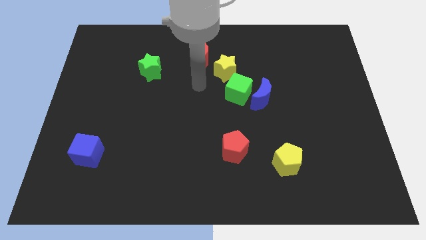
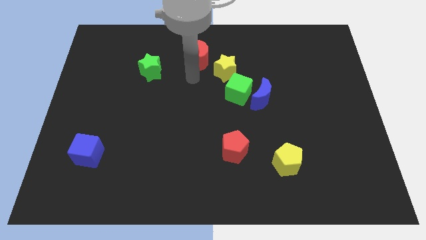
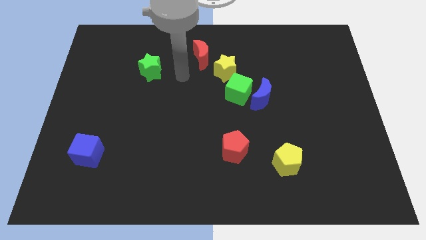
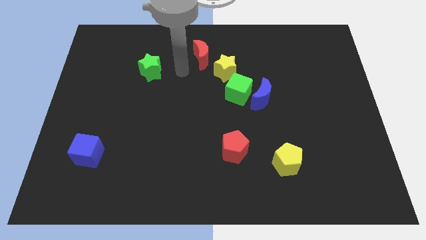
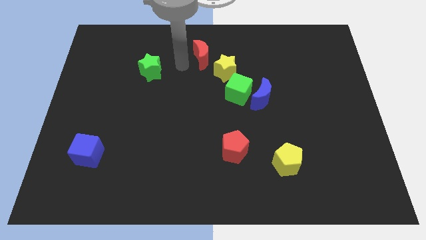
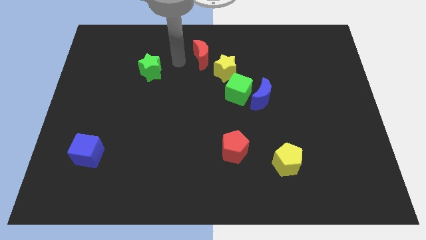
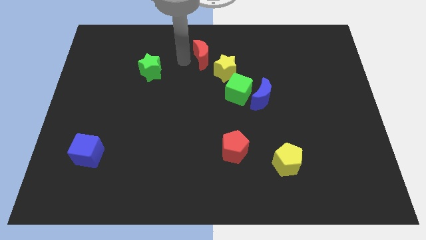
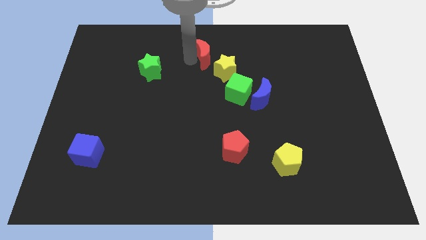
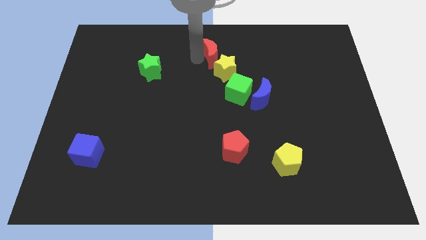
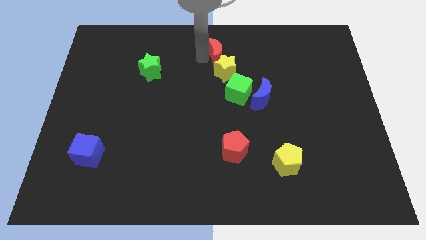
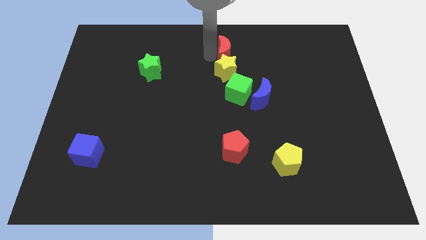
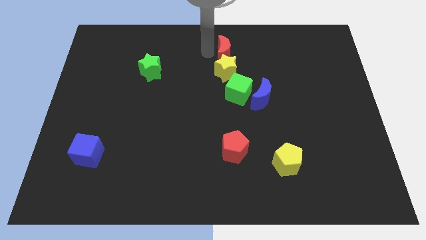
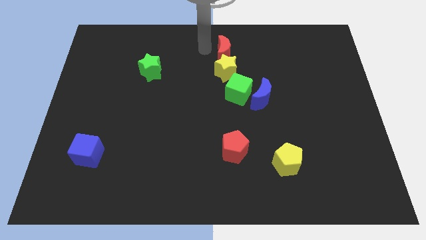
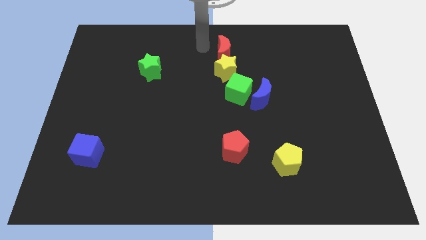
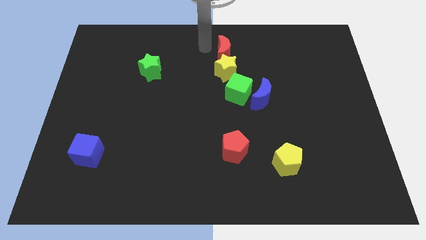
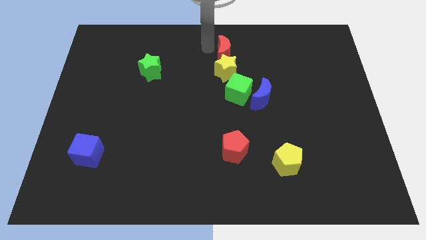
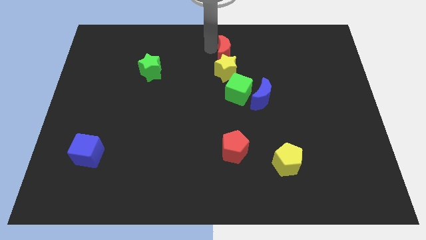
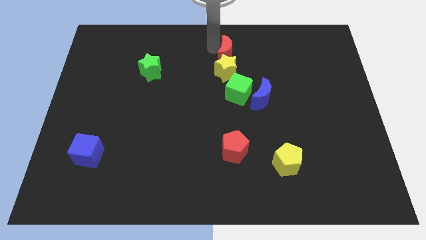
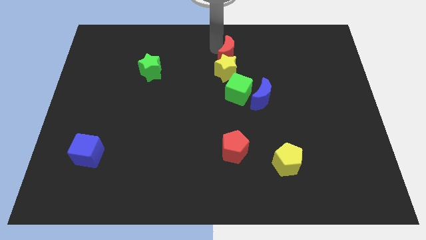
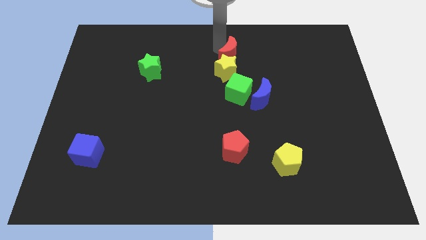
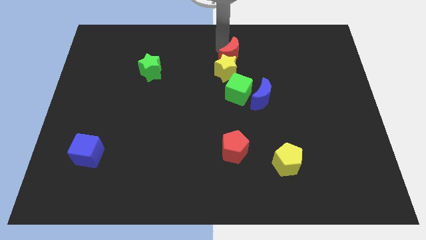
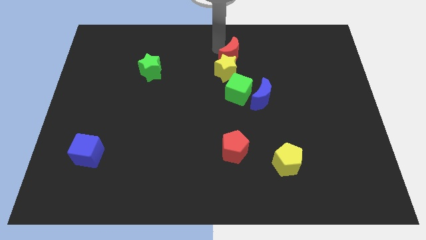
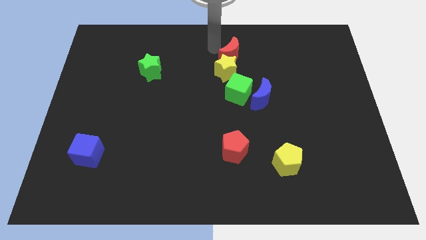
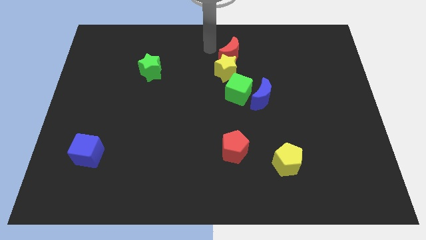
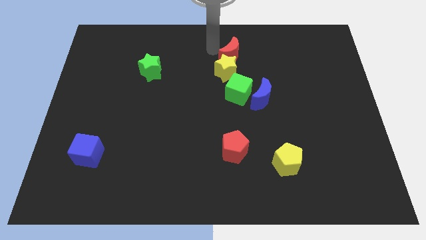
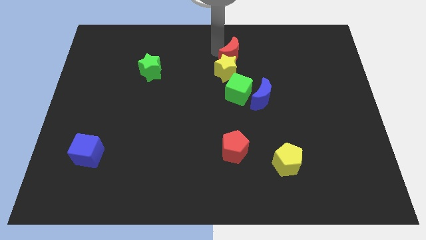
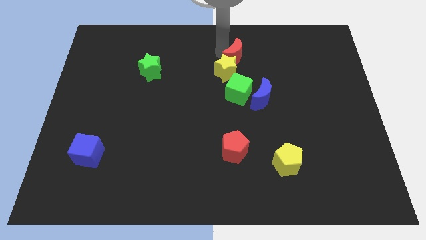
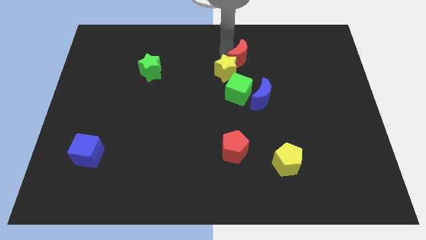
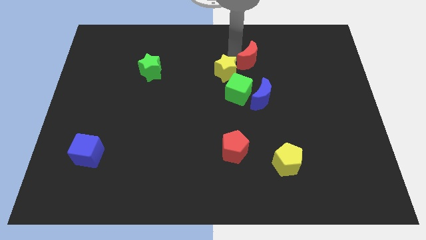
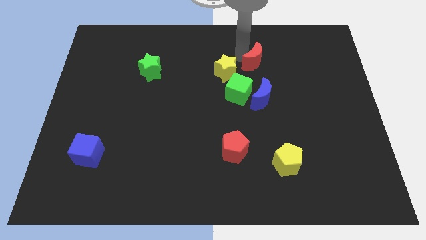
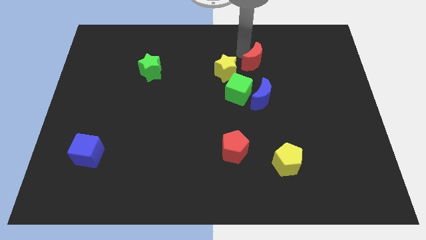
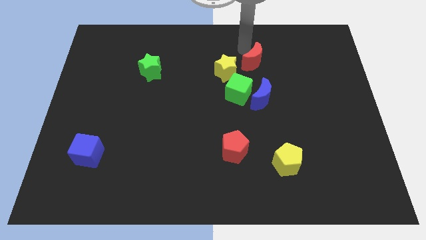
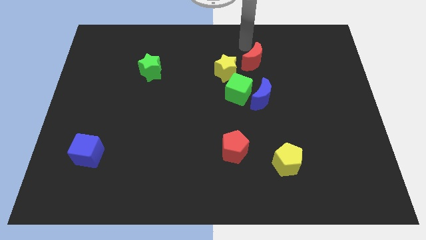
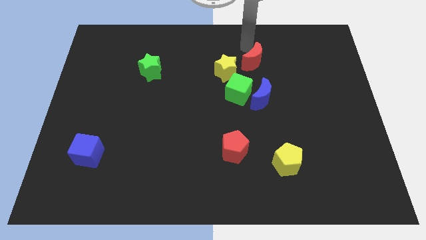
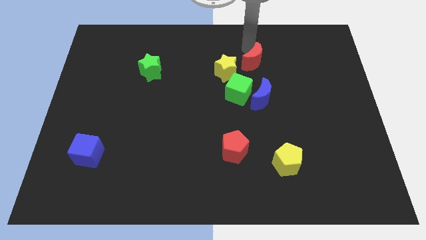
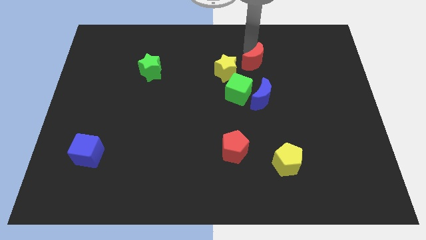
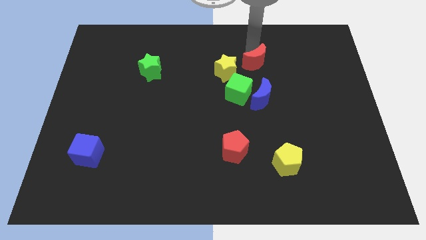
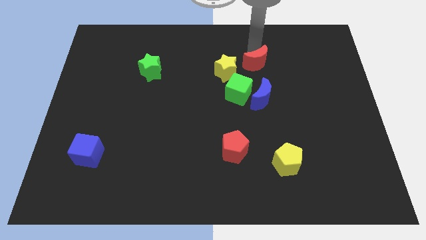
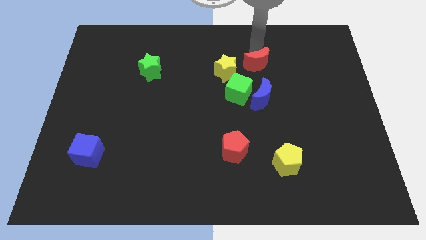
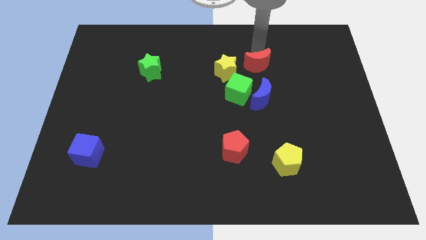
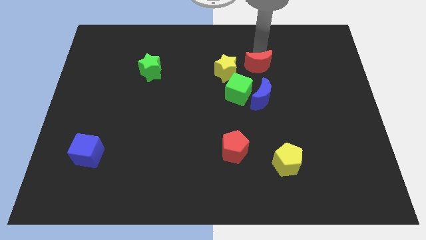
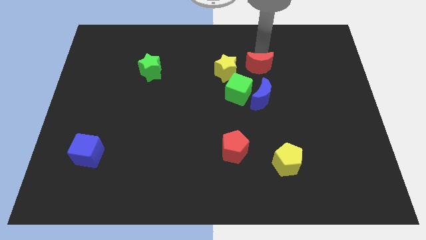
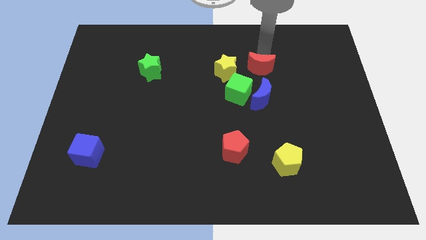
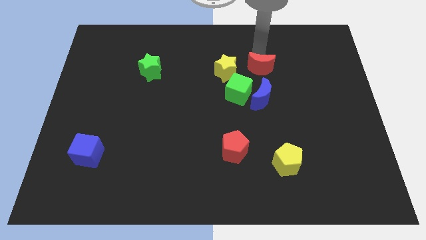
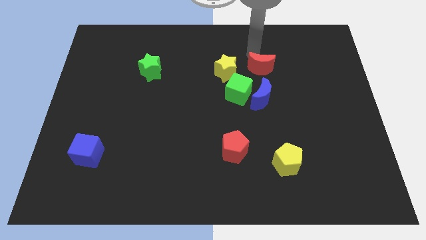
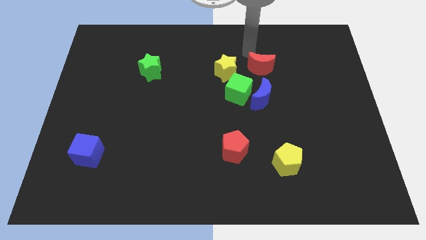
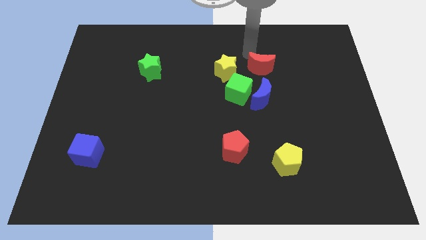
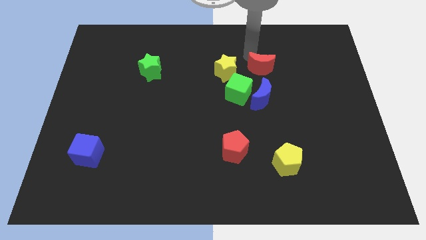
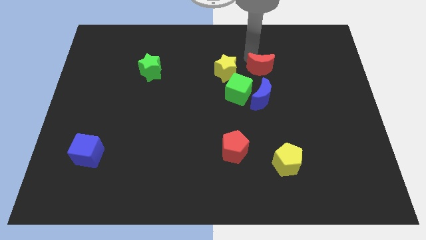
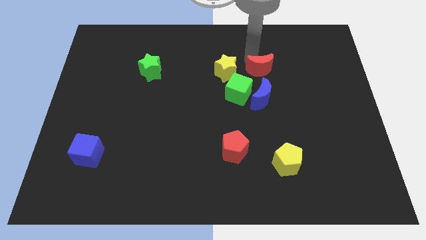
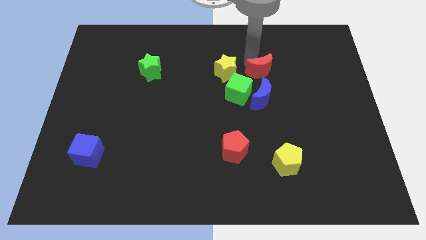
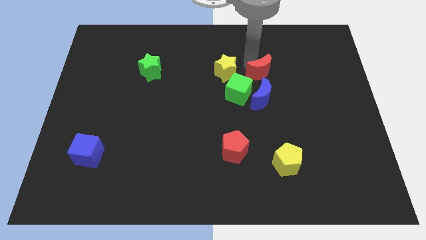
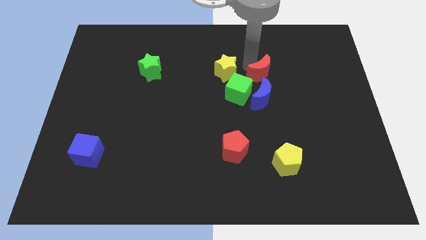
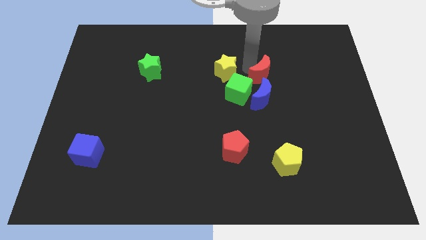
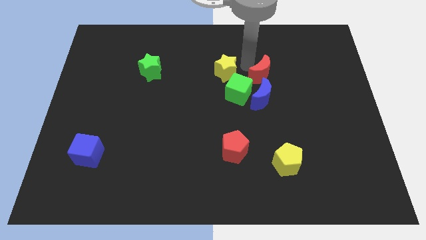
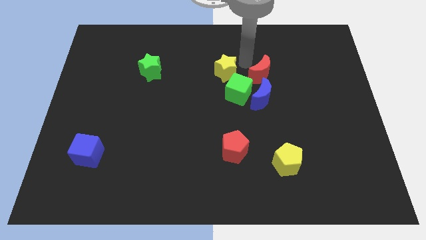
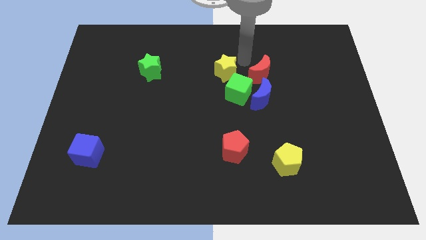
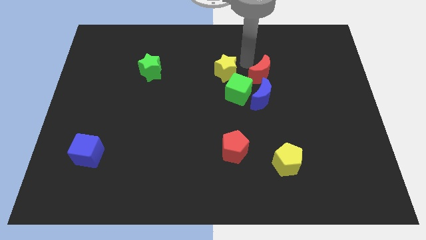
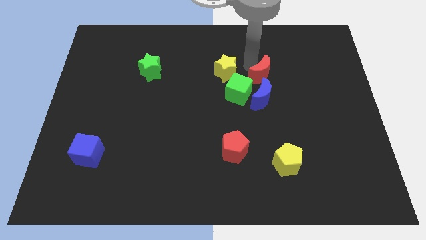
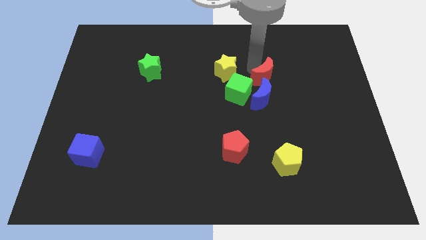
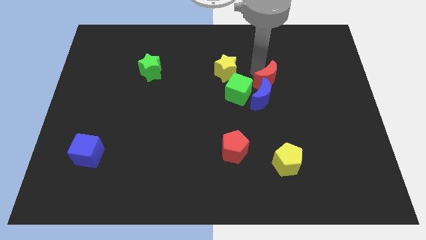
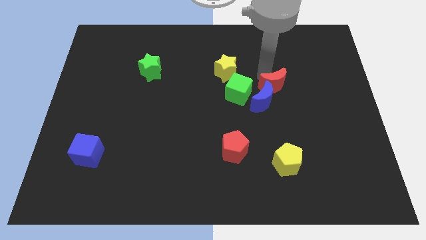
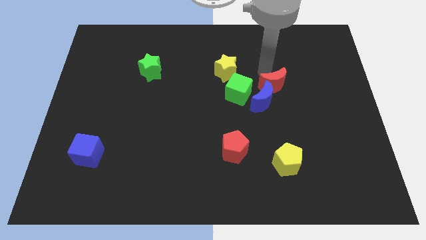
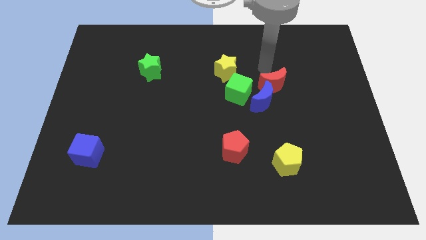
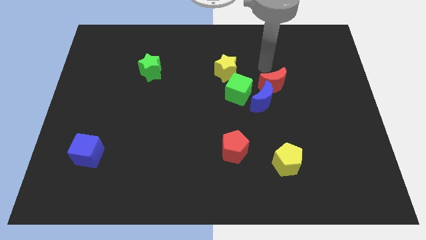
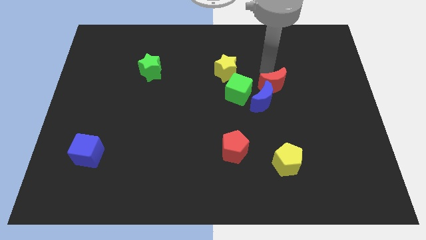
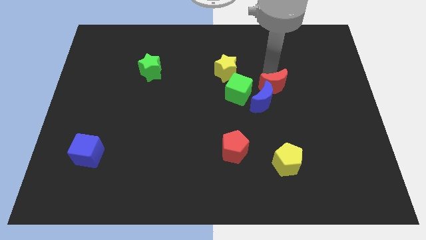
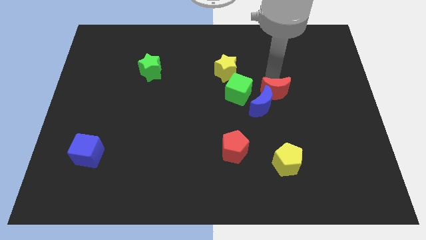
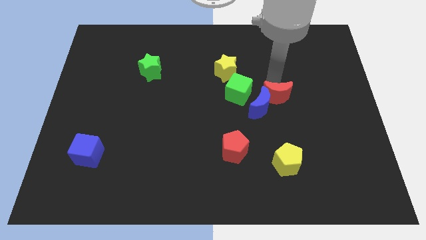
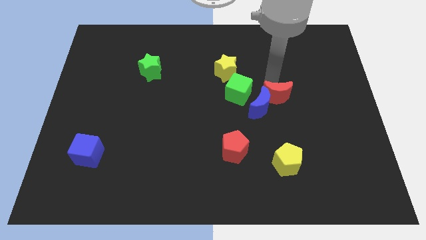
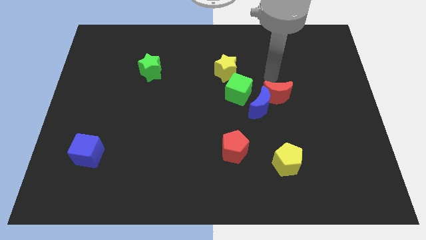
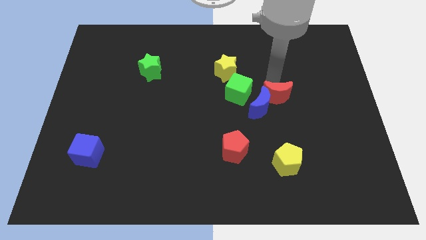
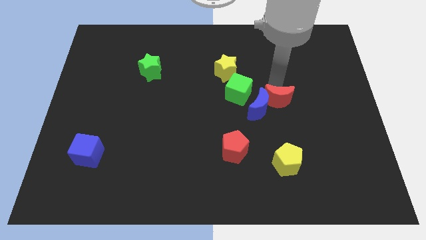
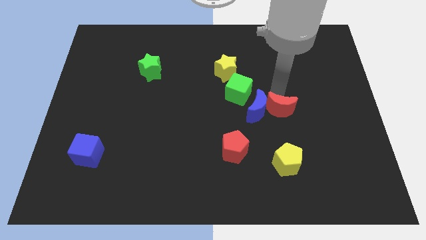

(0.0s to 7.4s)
put the red moon to the bottom right side of the blue moon
